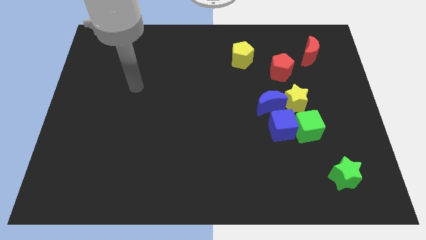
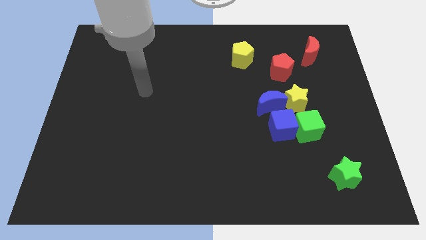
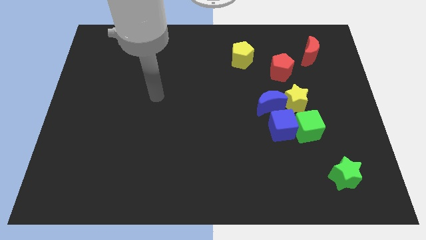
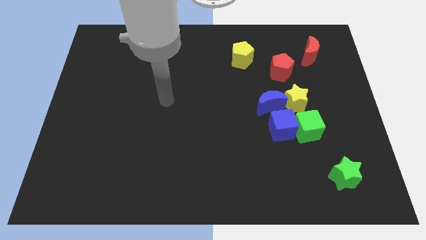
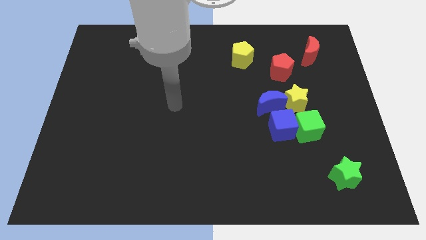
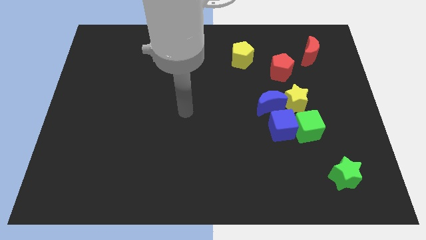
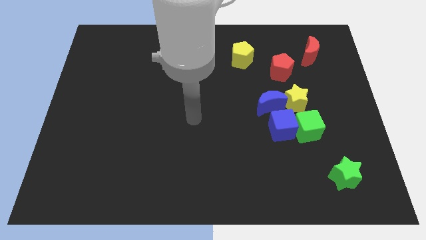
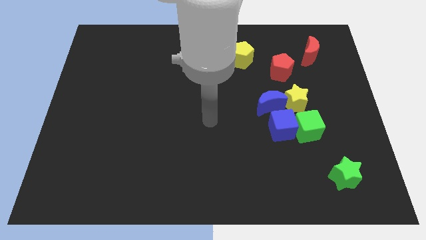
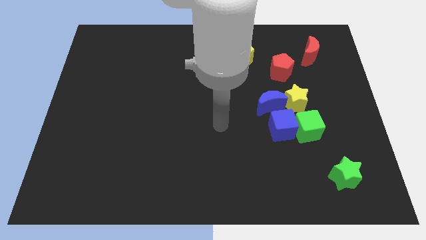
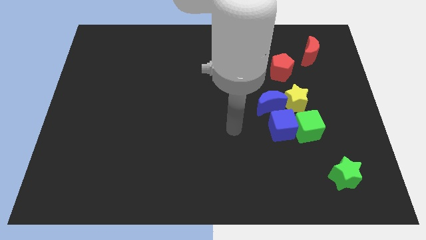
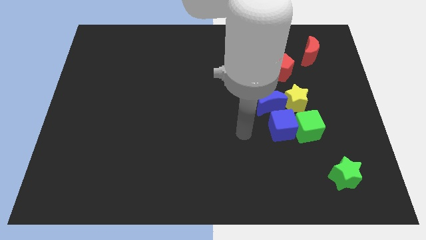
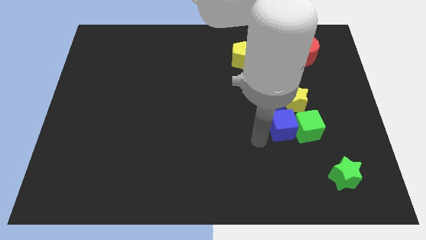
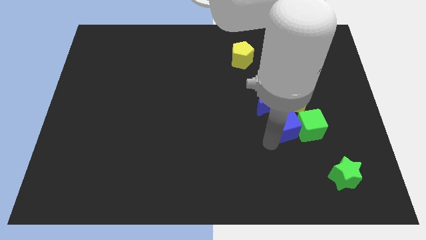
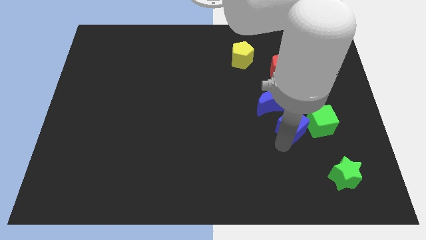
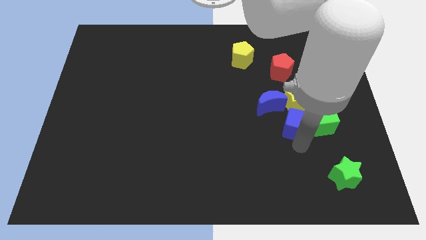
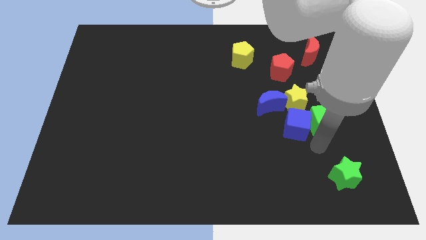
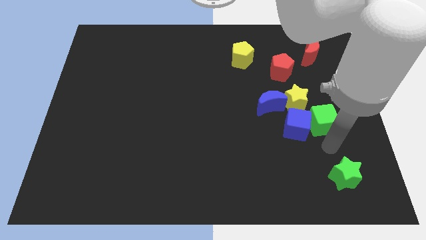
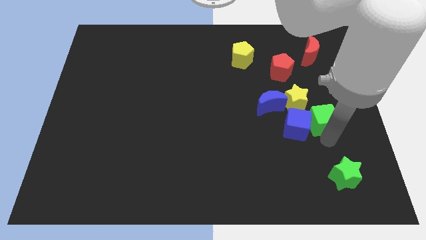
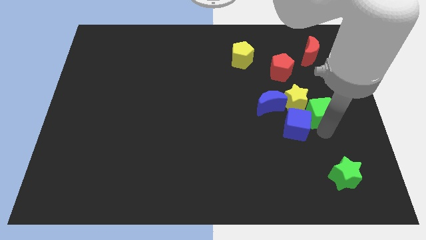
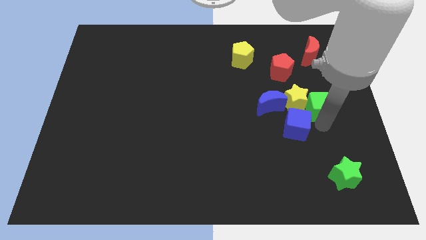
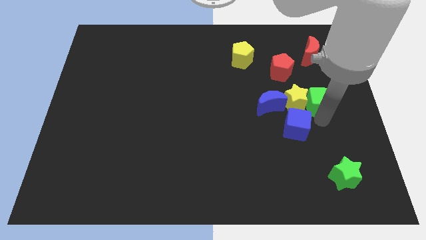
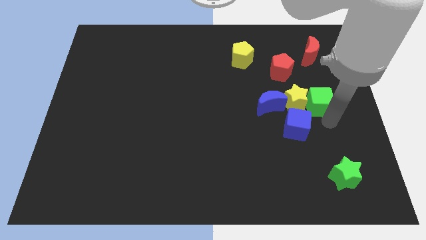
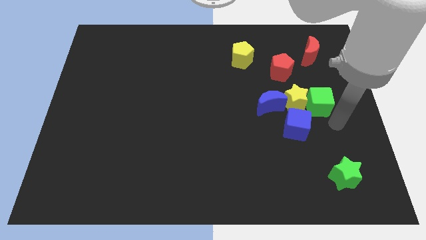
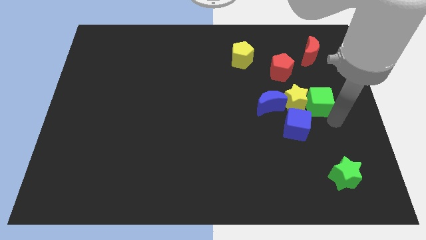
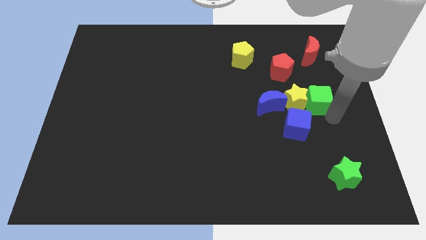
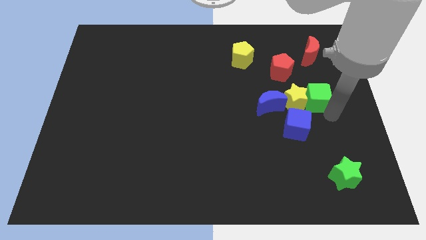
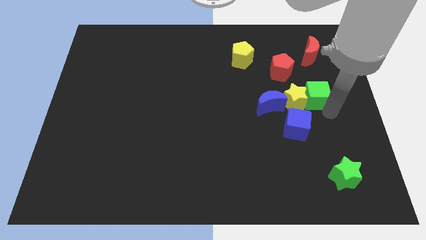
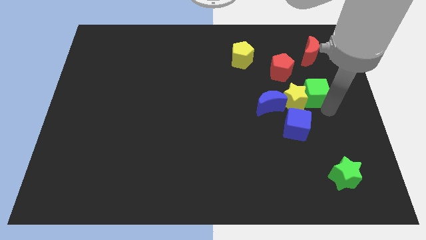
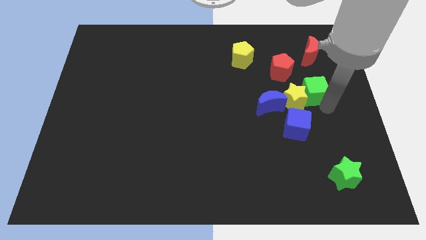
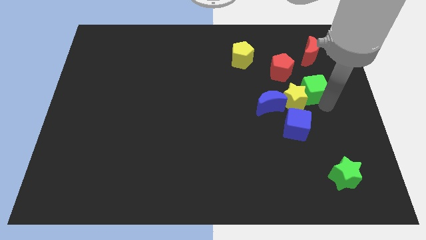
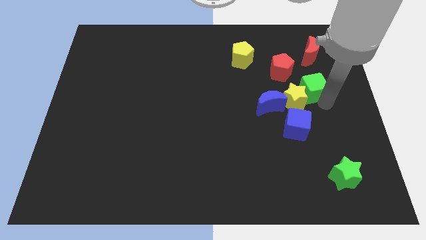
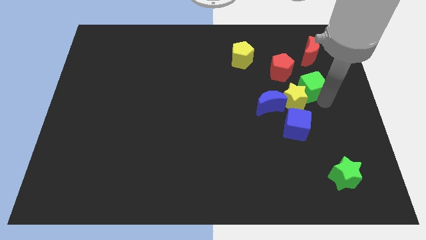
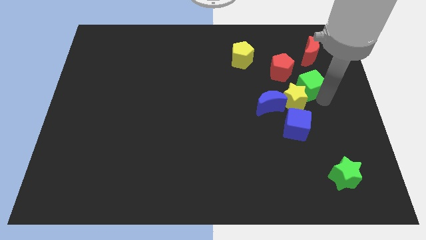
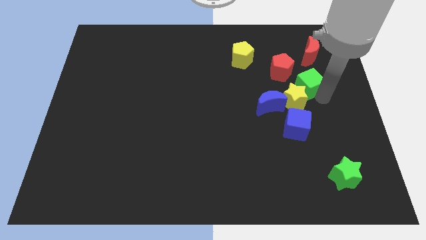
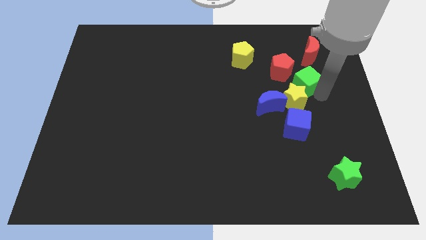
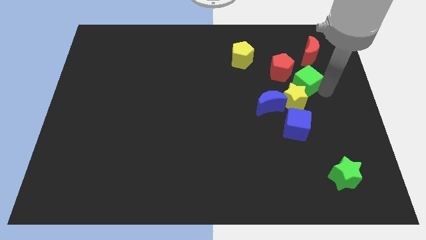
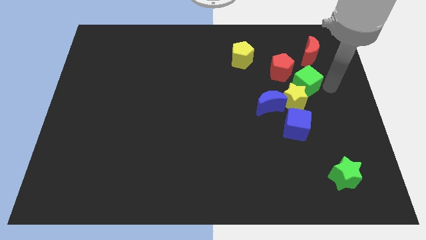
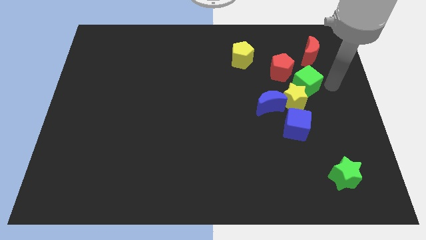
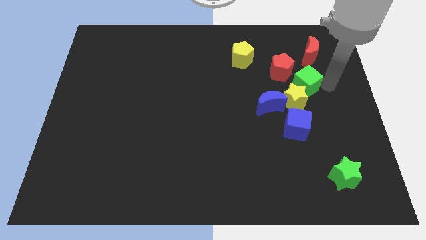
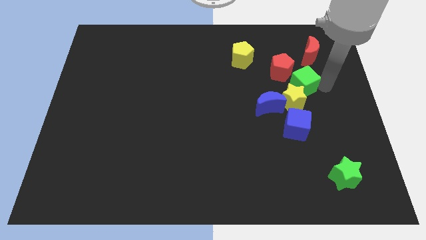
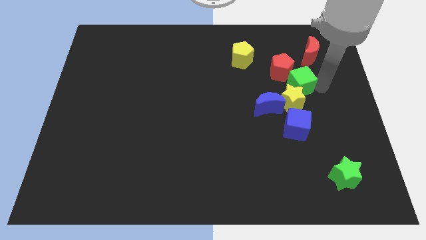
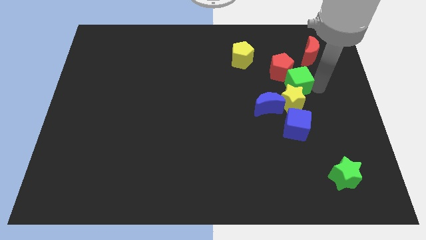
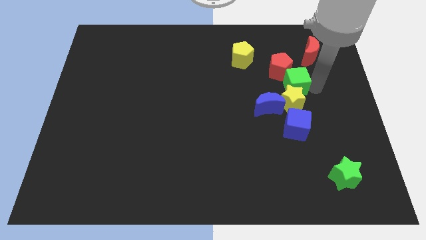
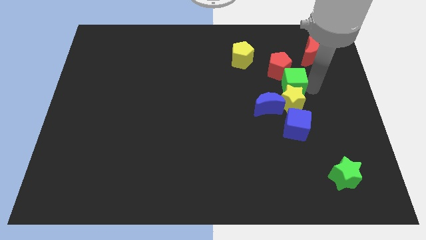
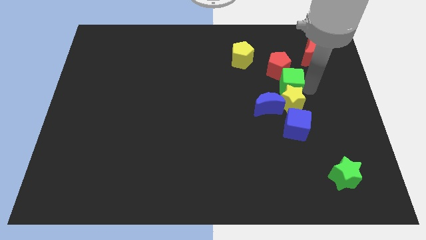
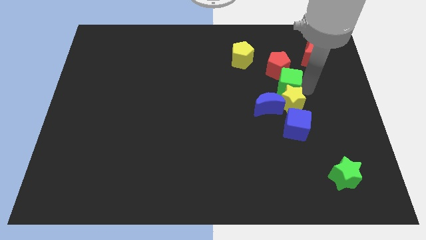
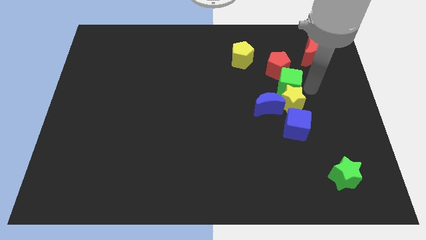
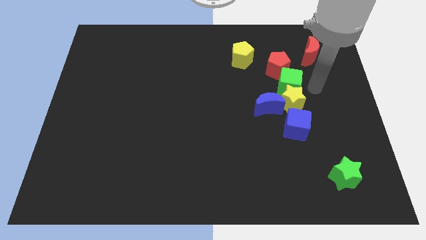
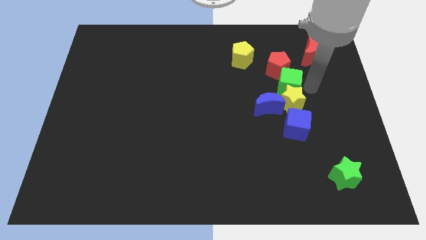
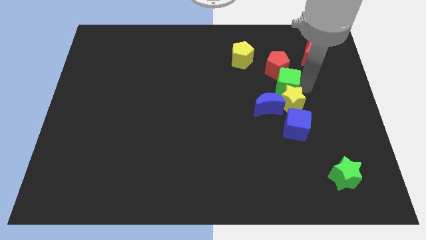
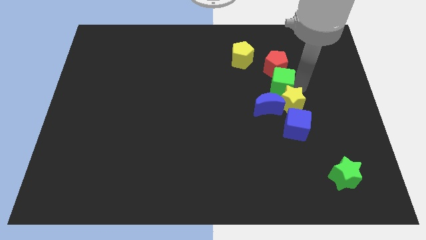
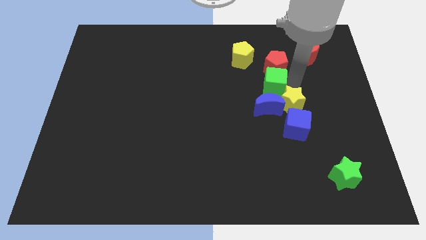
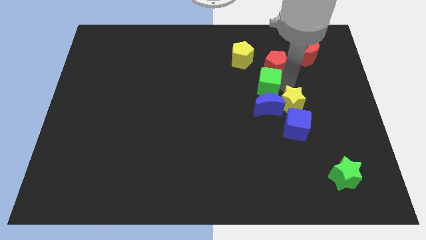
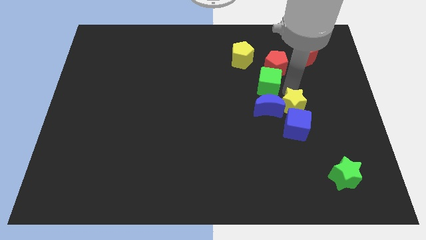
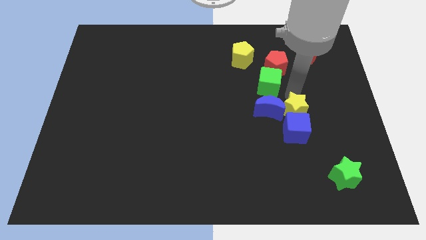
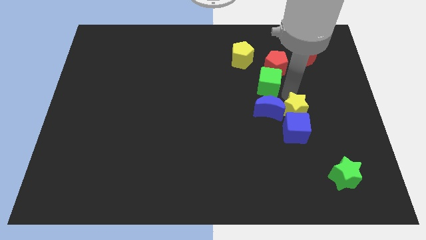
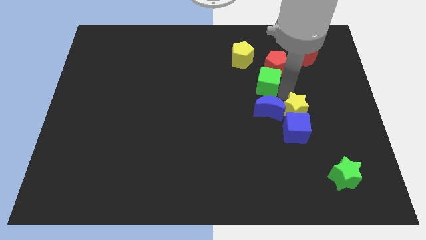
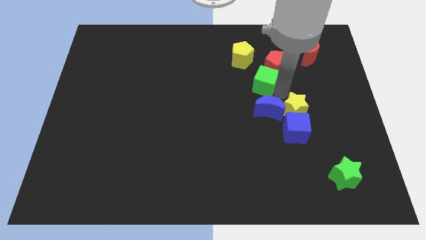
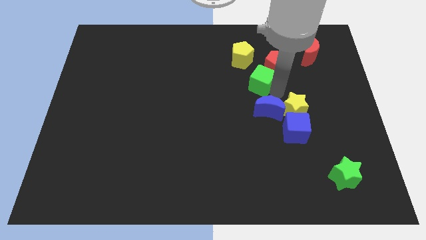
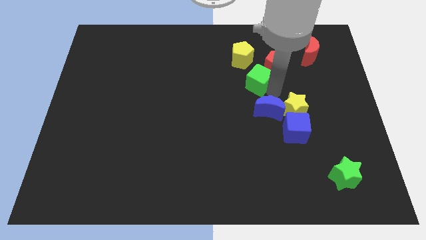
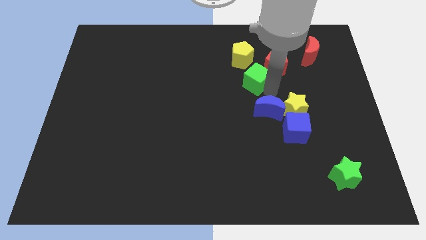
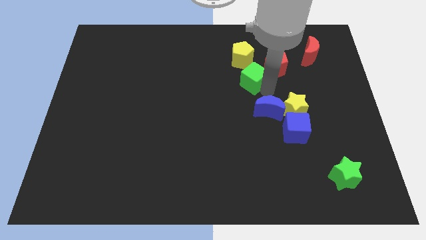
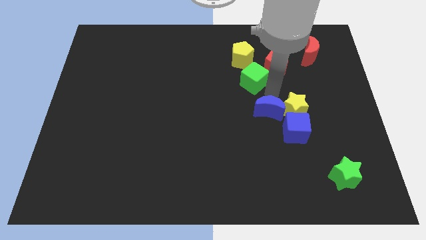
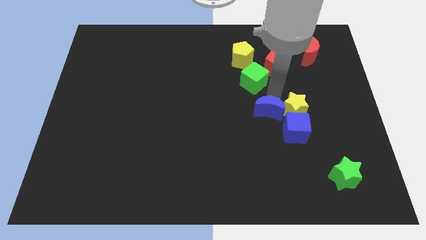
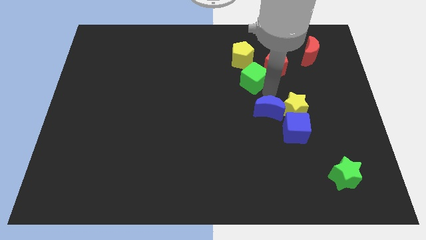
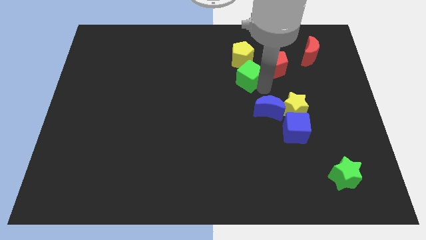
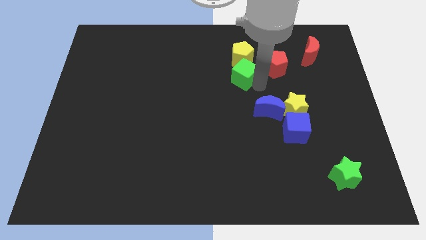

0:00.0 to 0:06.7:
slide the green cube upwards and then to the left

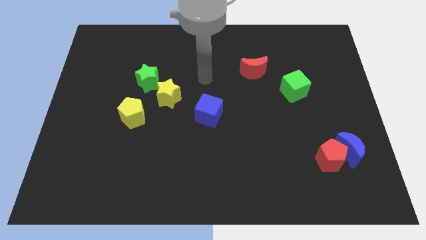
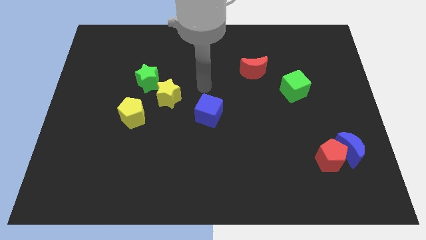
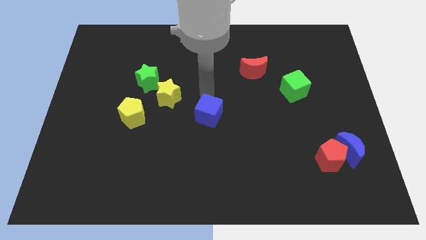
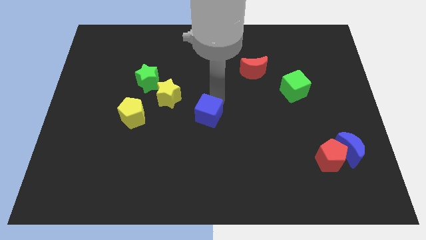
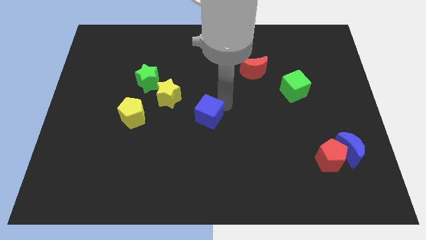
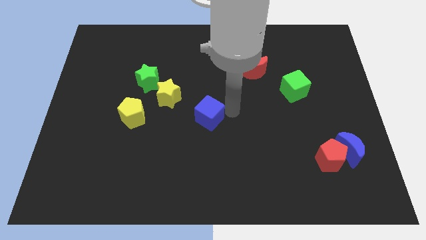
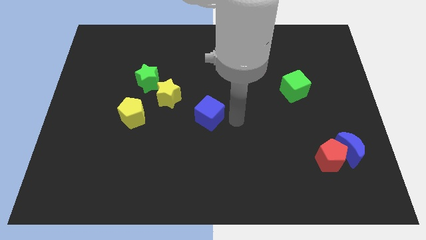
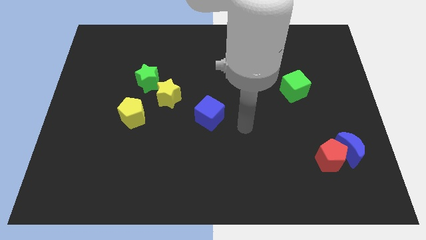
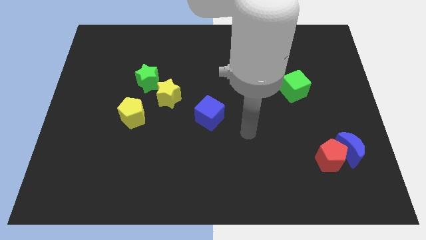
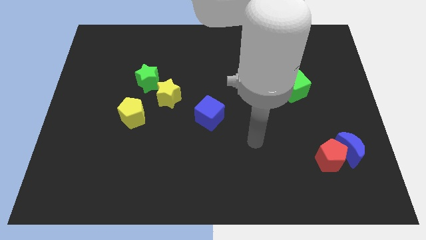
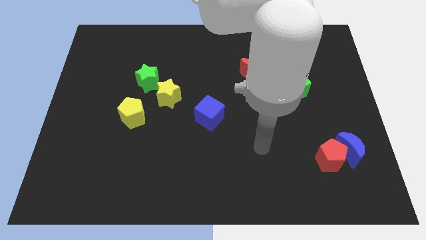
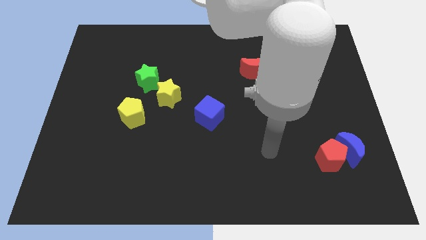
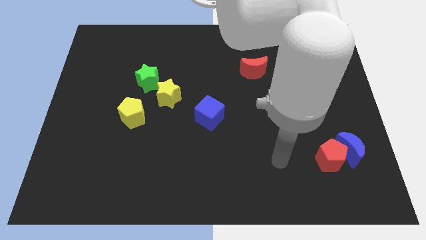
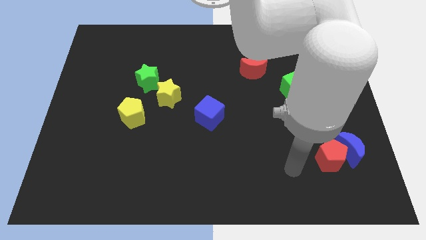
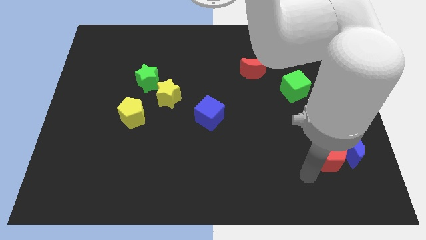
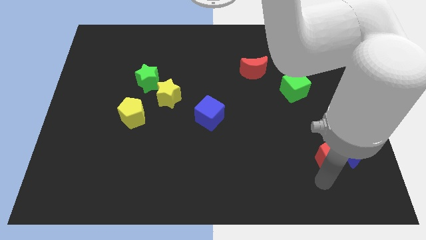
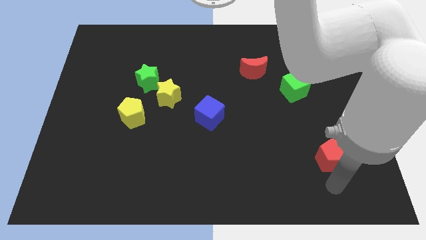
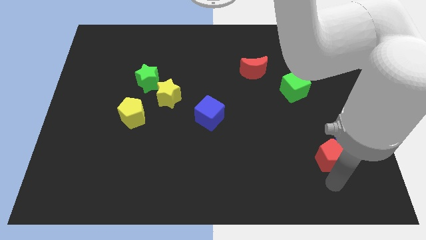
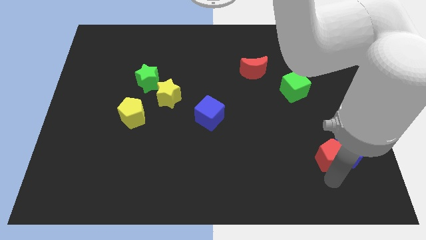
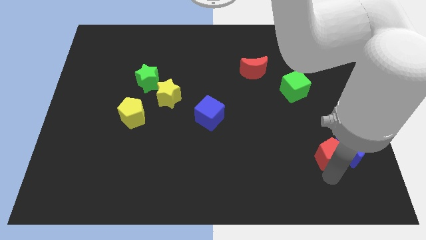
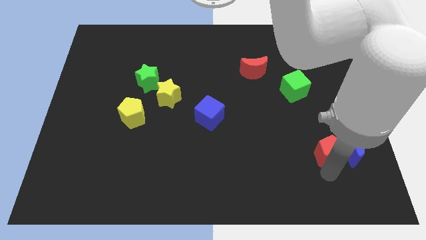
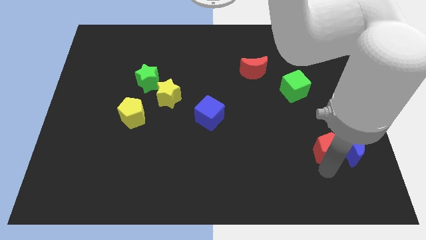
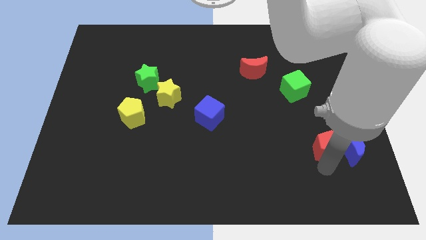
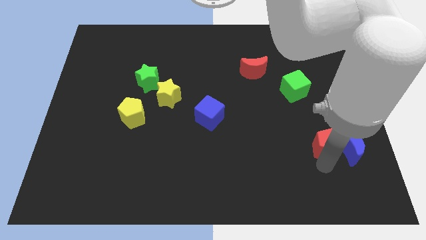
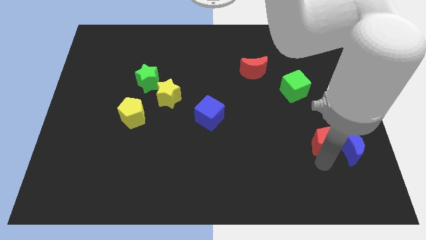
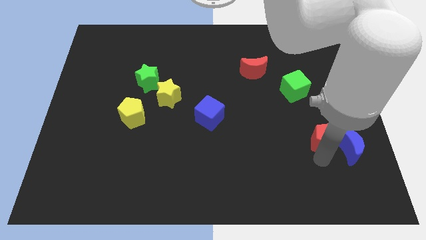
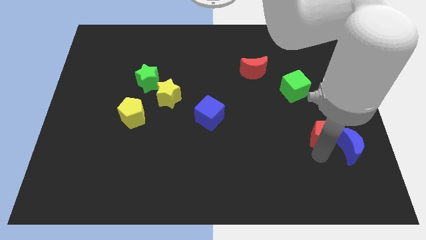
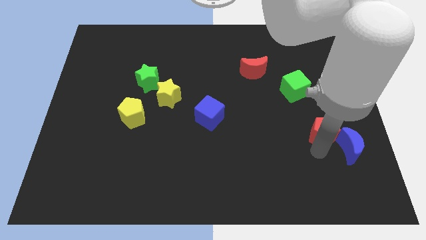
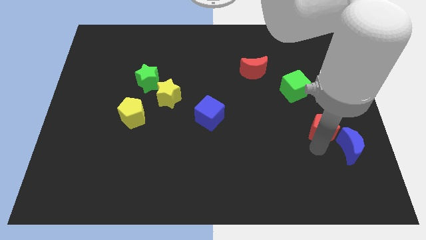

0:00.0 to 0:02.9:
slightly push the red pentagon up
